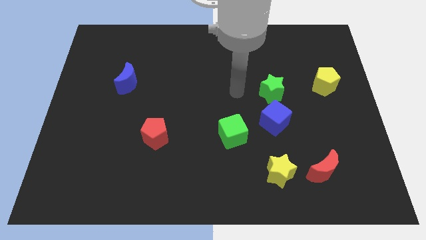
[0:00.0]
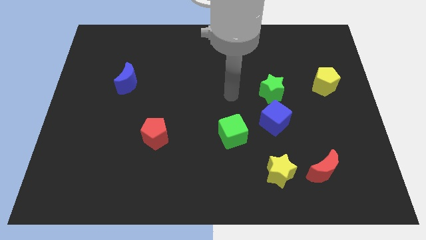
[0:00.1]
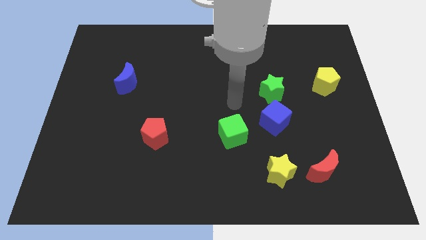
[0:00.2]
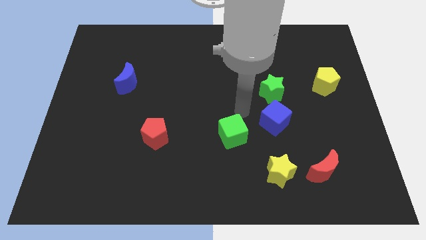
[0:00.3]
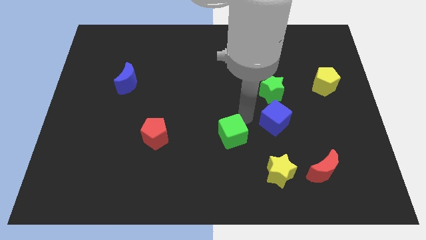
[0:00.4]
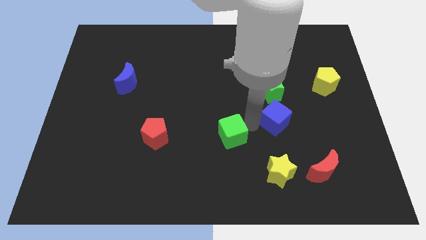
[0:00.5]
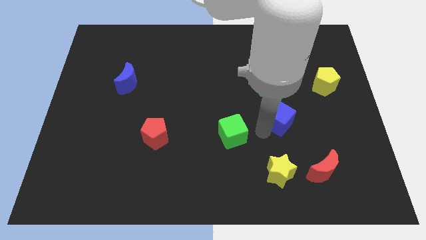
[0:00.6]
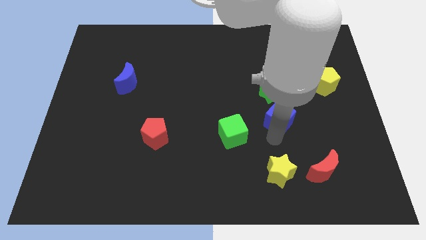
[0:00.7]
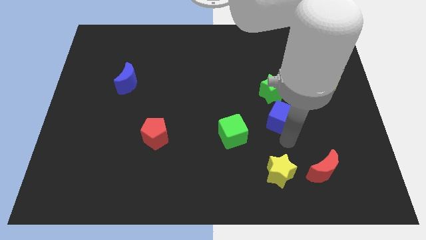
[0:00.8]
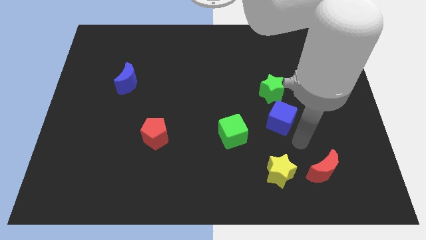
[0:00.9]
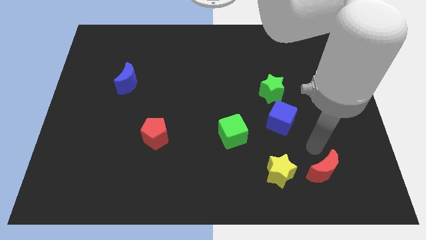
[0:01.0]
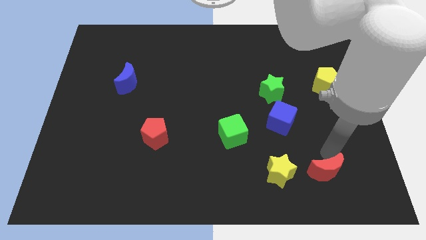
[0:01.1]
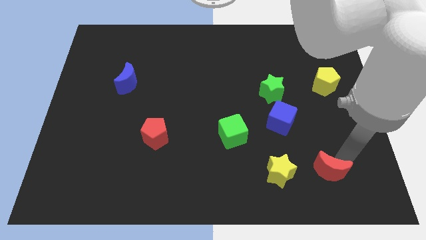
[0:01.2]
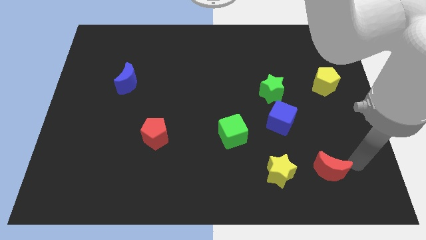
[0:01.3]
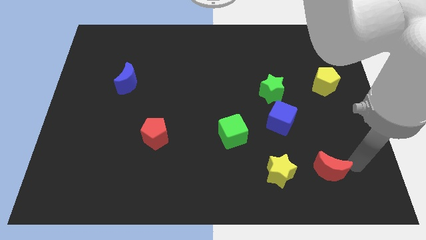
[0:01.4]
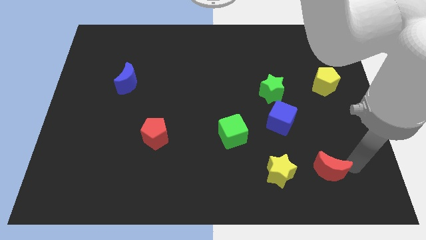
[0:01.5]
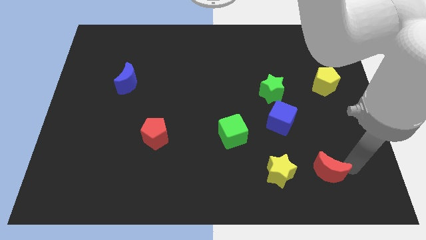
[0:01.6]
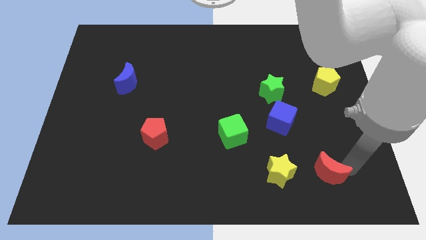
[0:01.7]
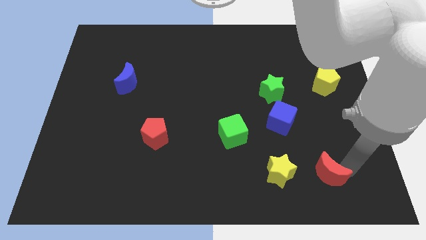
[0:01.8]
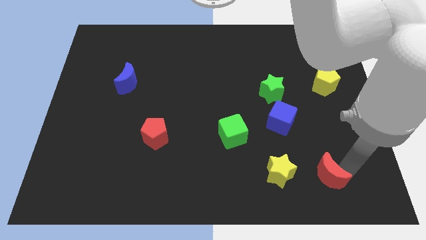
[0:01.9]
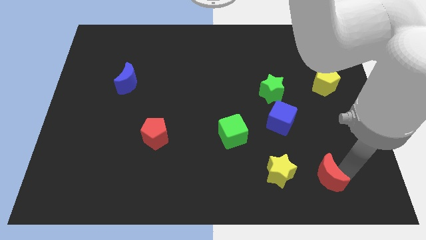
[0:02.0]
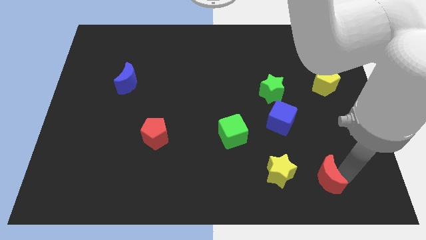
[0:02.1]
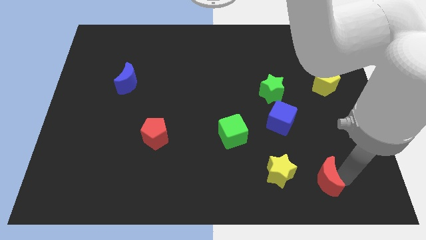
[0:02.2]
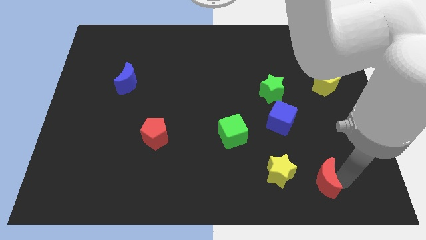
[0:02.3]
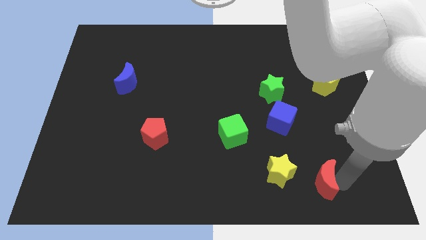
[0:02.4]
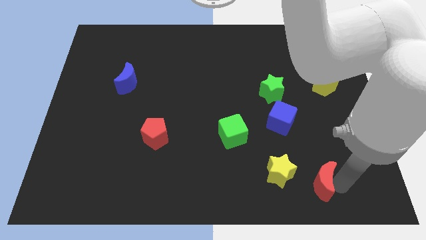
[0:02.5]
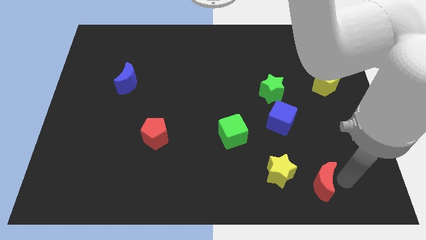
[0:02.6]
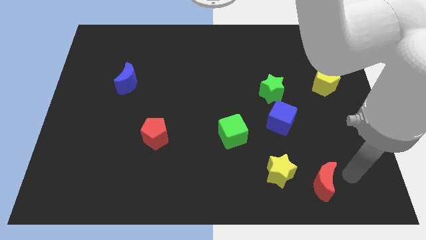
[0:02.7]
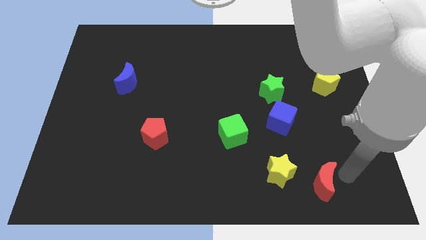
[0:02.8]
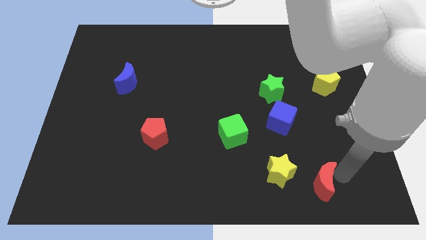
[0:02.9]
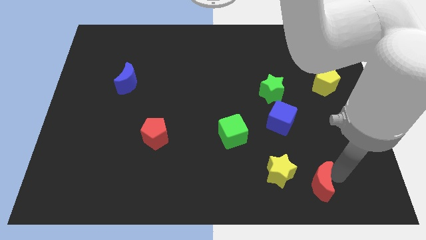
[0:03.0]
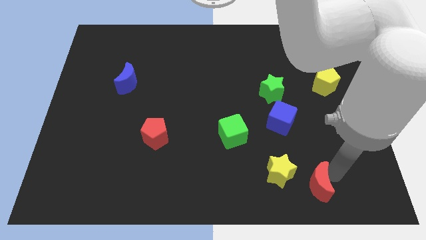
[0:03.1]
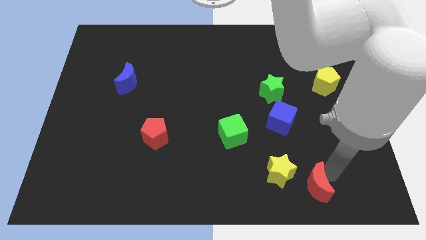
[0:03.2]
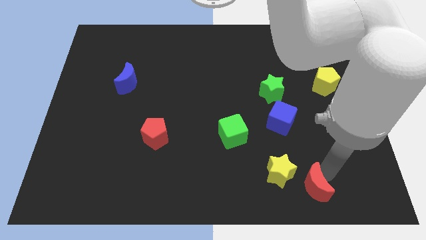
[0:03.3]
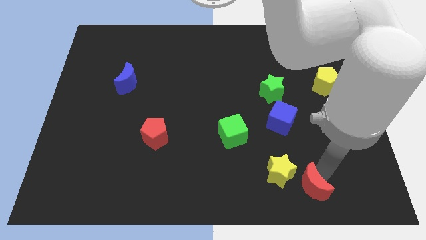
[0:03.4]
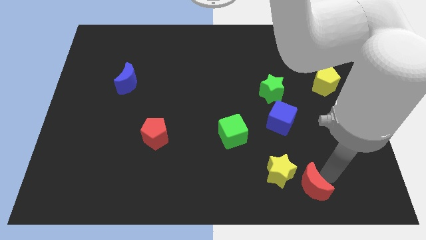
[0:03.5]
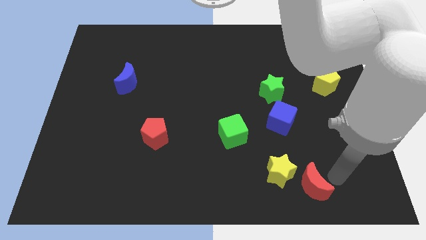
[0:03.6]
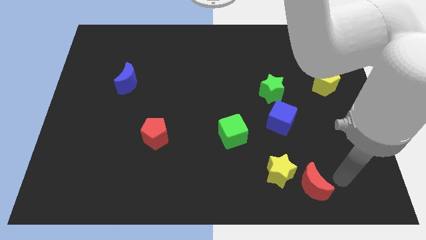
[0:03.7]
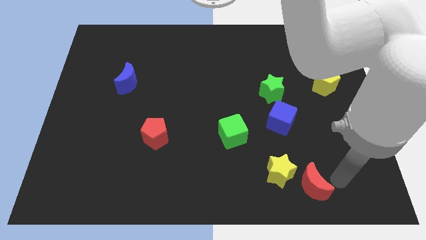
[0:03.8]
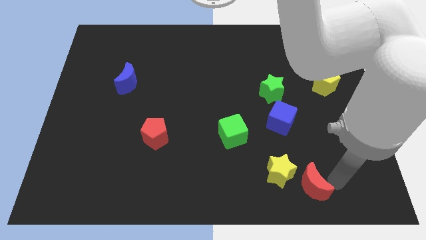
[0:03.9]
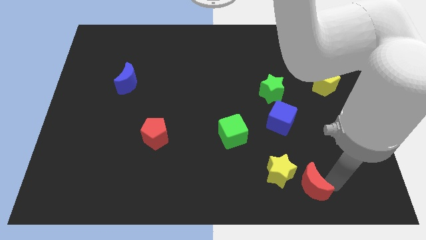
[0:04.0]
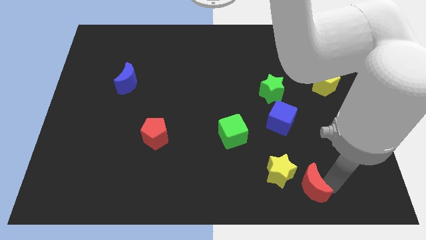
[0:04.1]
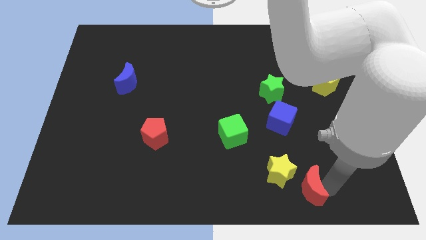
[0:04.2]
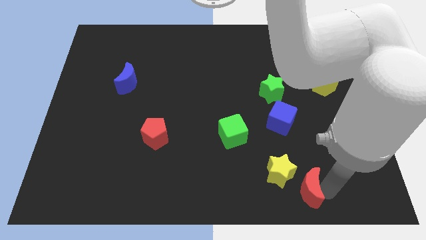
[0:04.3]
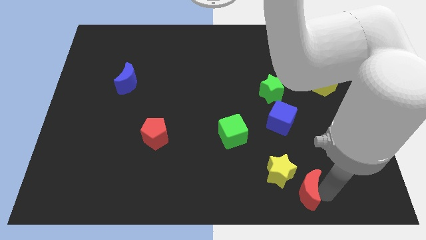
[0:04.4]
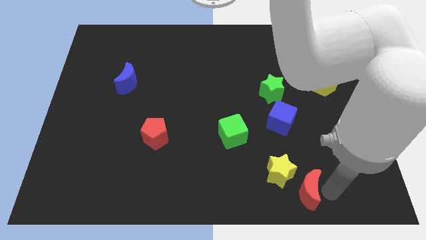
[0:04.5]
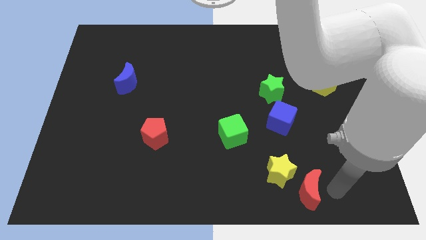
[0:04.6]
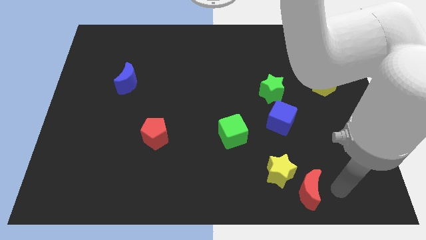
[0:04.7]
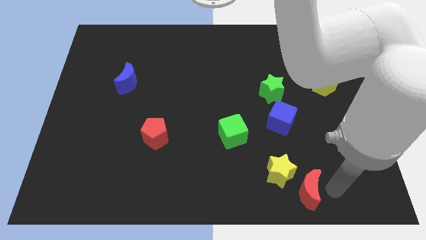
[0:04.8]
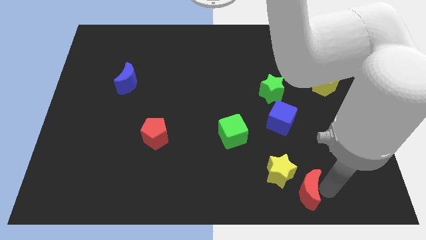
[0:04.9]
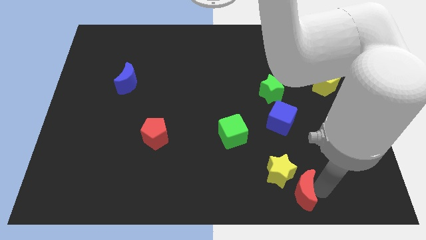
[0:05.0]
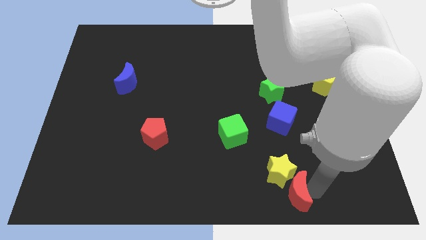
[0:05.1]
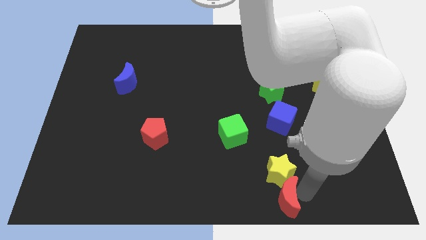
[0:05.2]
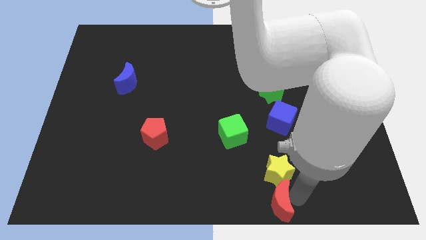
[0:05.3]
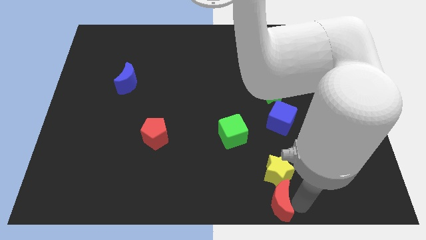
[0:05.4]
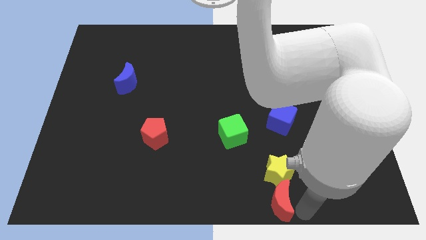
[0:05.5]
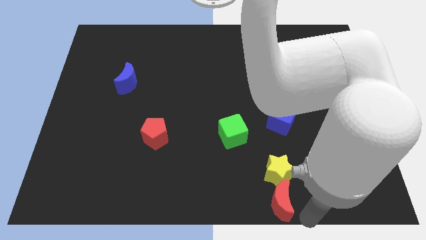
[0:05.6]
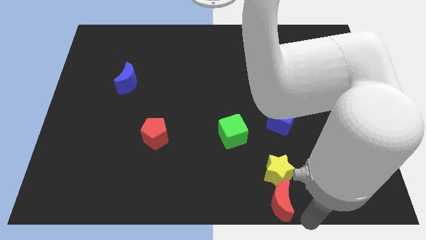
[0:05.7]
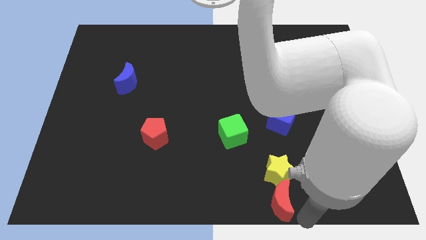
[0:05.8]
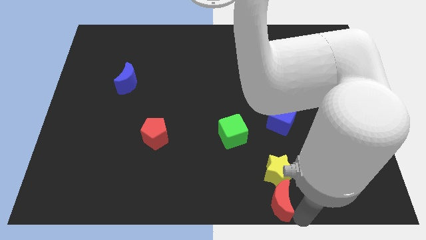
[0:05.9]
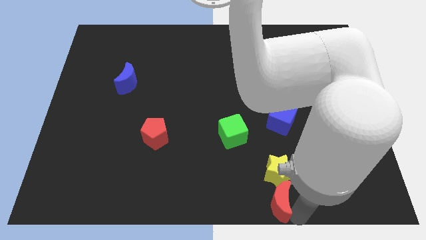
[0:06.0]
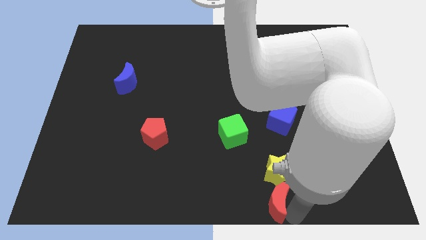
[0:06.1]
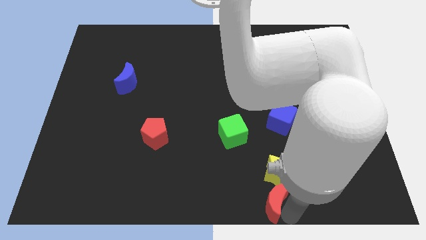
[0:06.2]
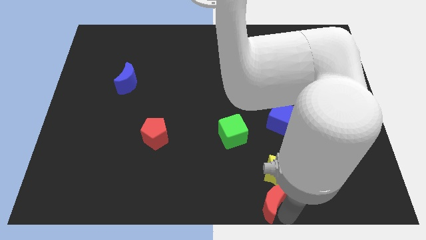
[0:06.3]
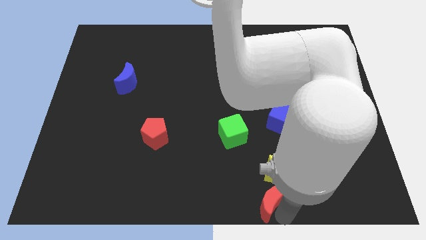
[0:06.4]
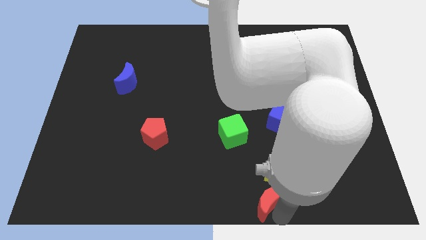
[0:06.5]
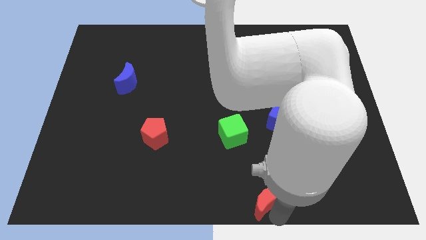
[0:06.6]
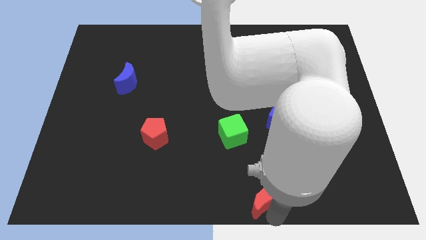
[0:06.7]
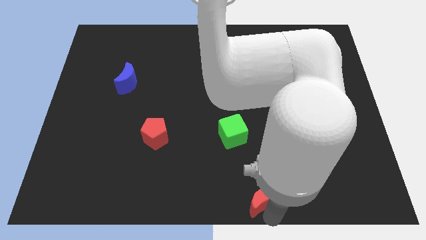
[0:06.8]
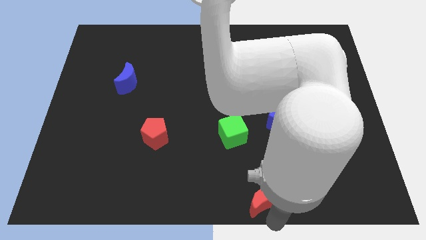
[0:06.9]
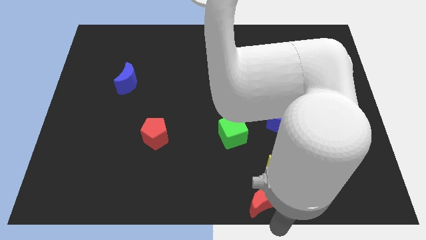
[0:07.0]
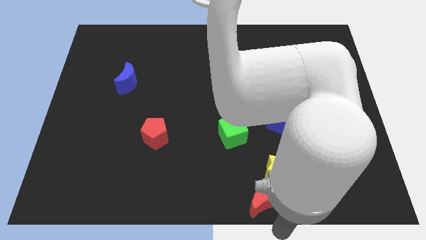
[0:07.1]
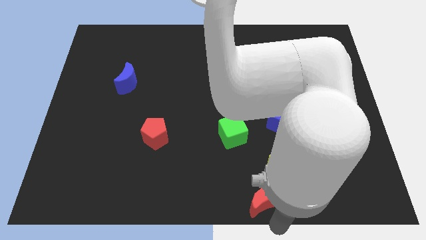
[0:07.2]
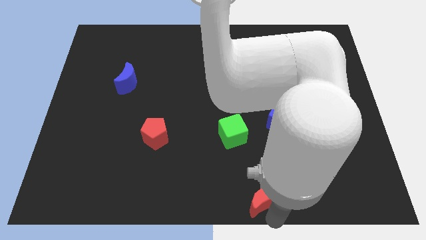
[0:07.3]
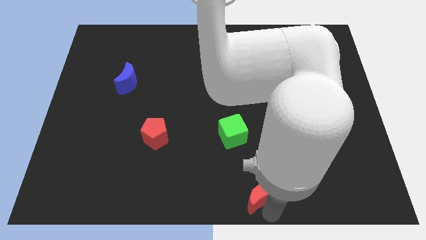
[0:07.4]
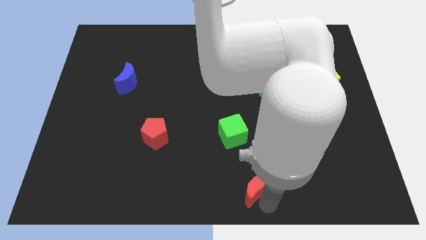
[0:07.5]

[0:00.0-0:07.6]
slide the red moon to the bottom of the green cube

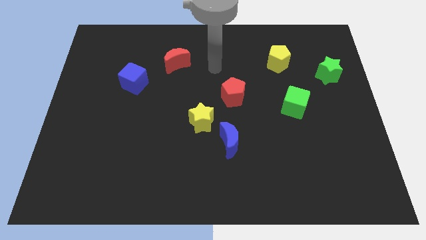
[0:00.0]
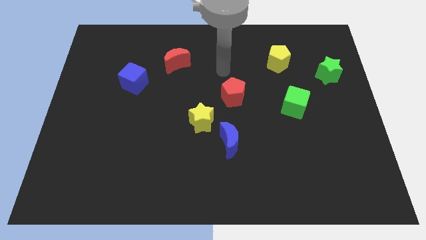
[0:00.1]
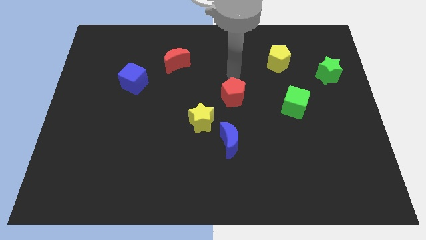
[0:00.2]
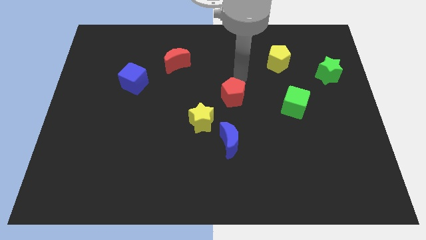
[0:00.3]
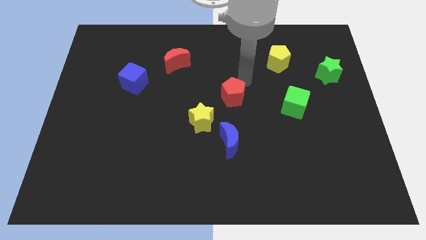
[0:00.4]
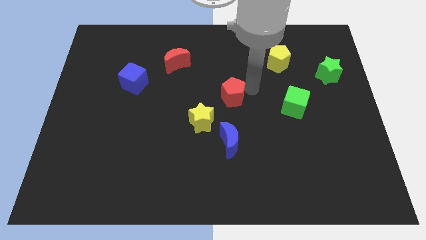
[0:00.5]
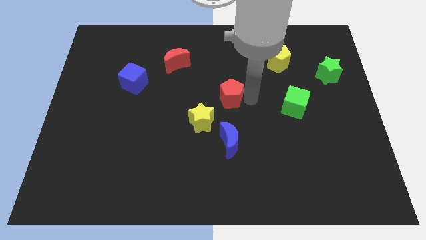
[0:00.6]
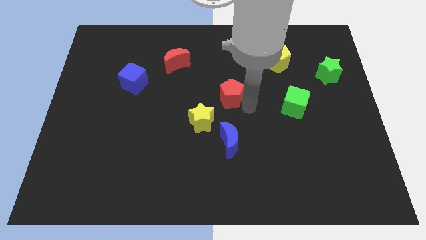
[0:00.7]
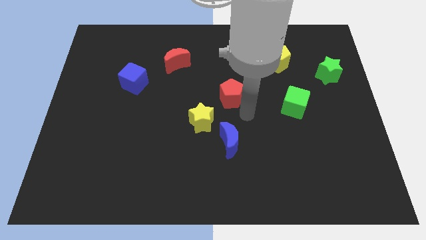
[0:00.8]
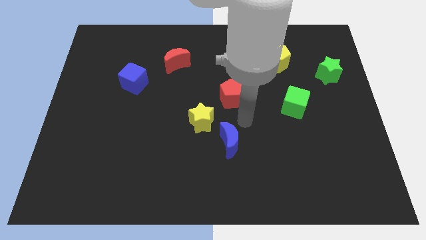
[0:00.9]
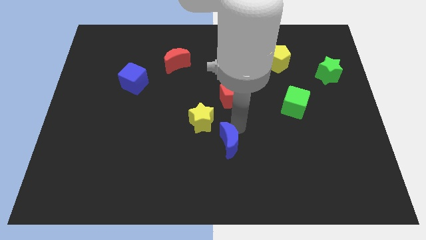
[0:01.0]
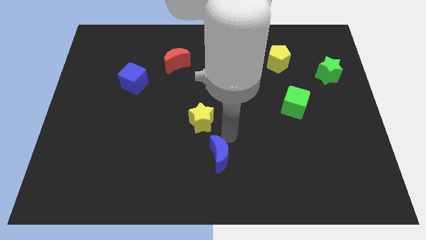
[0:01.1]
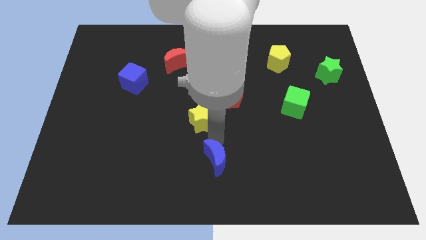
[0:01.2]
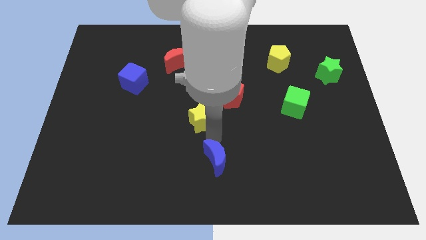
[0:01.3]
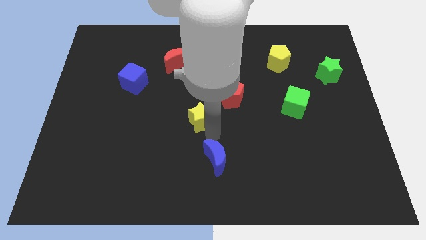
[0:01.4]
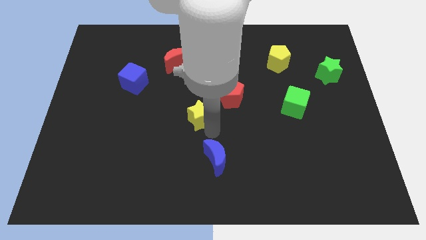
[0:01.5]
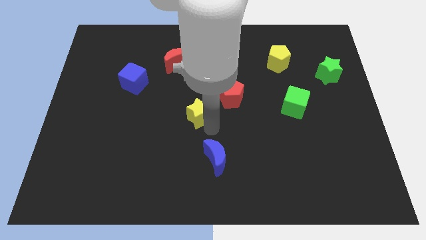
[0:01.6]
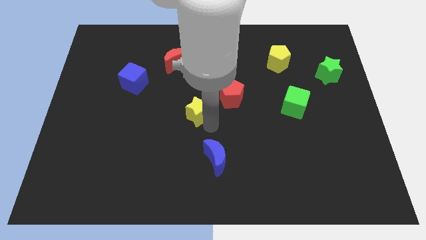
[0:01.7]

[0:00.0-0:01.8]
put the yellow star to the left of the red pentagon
